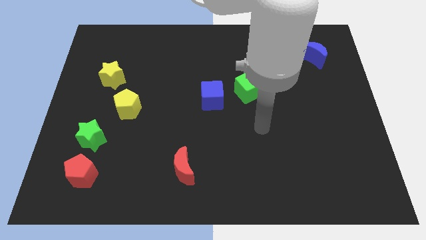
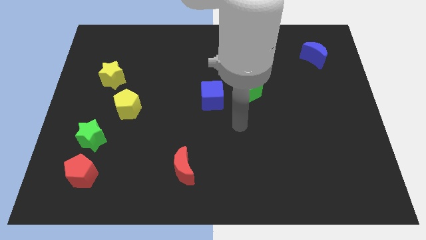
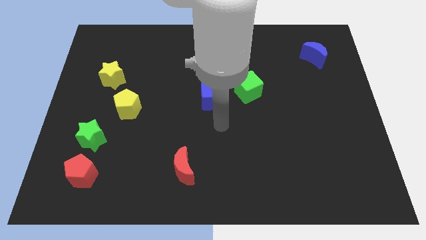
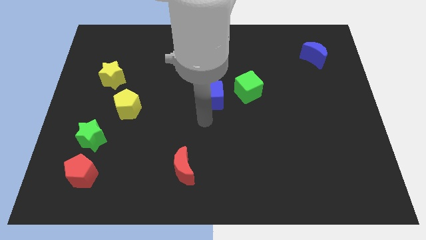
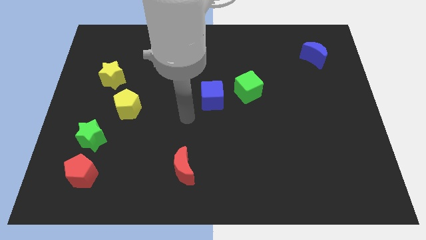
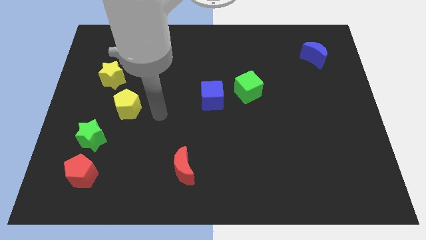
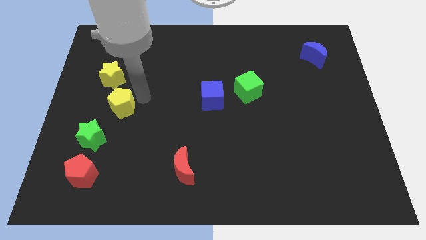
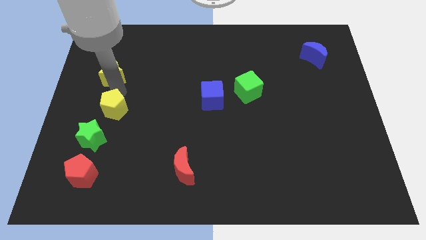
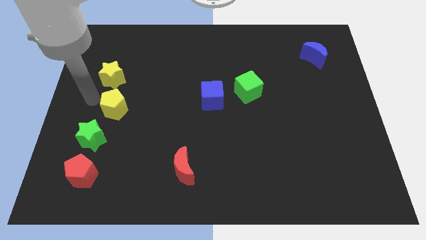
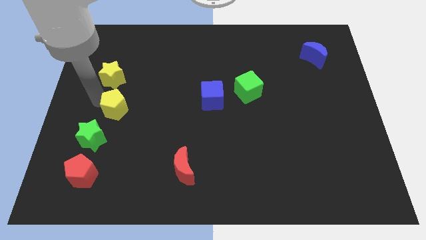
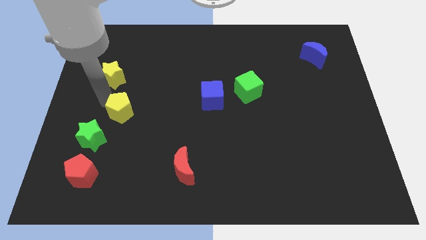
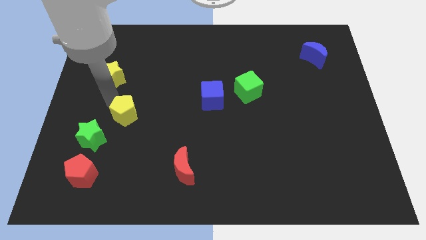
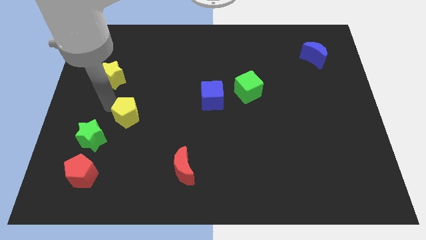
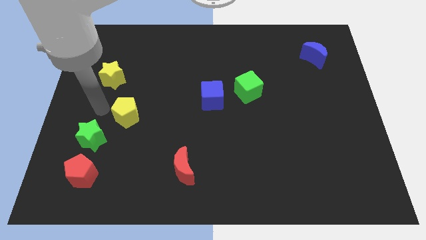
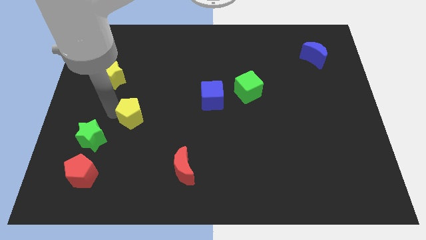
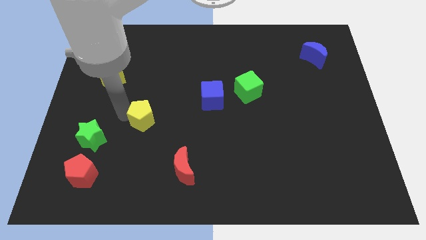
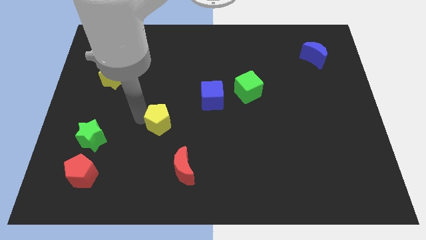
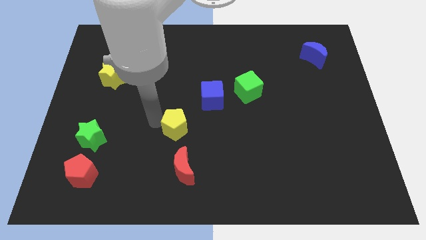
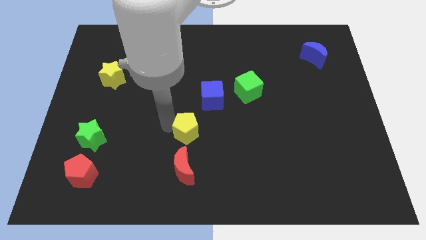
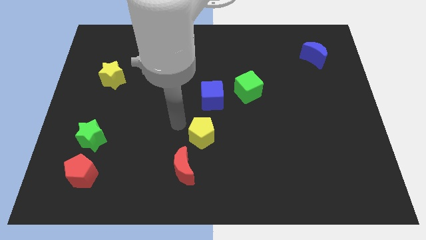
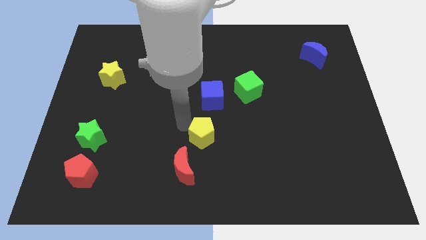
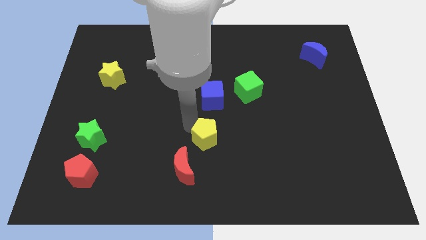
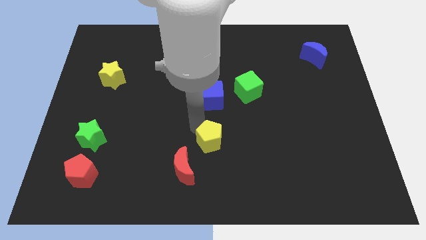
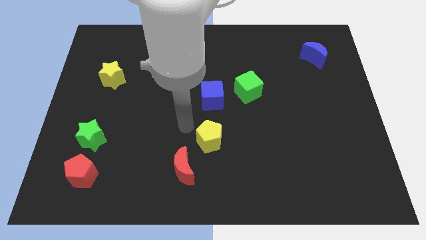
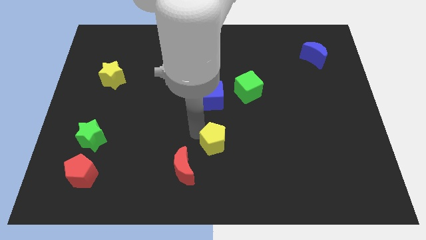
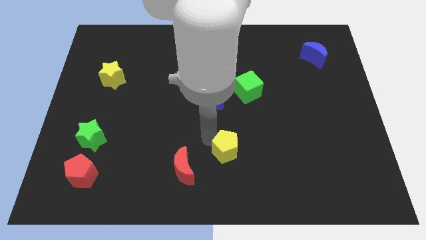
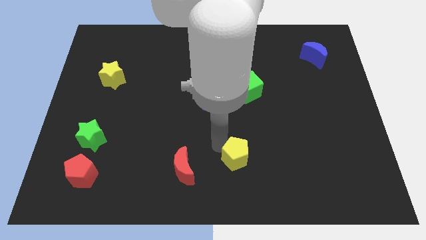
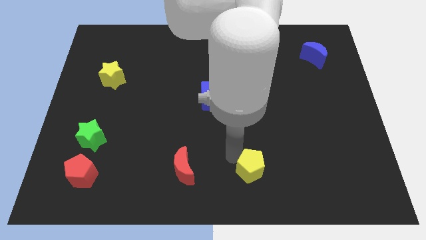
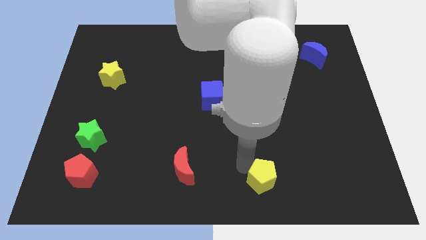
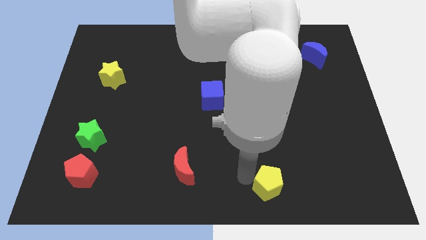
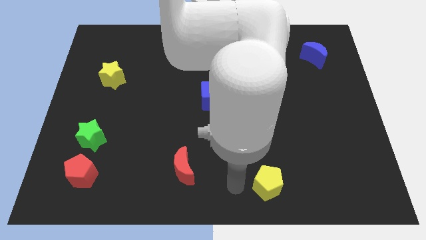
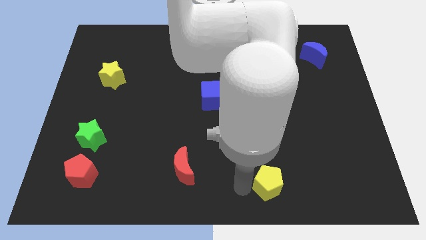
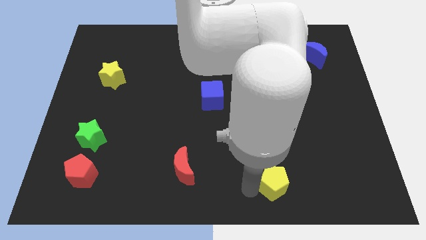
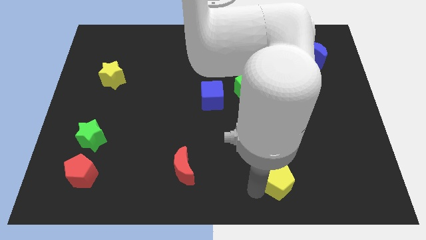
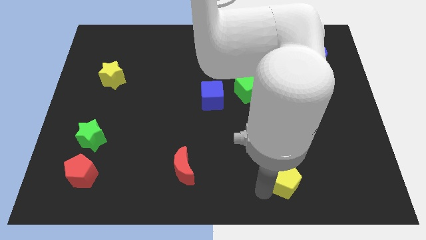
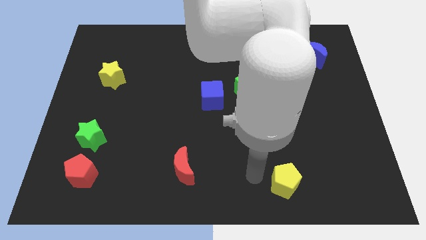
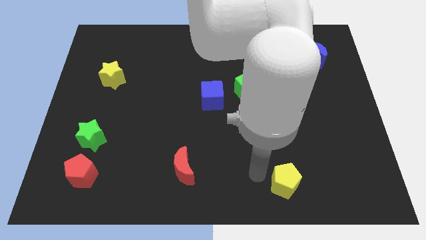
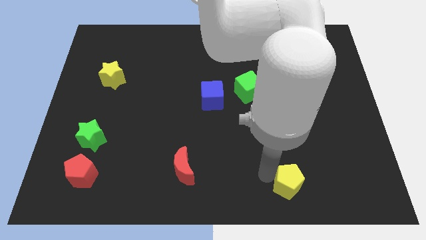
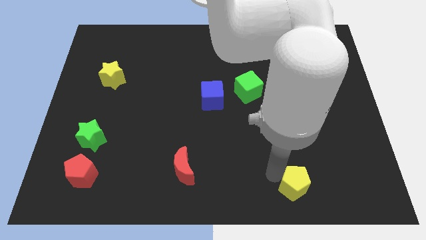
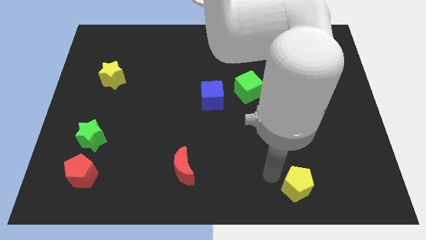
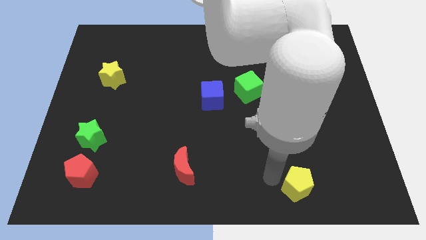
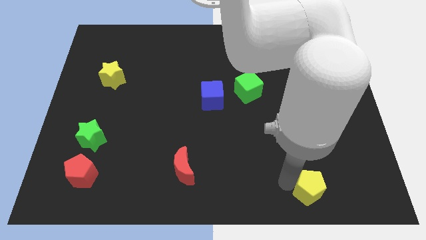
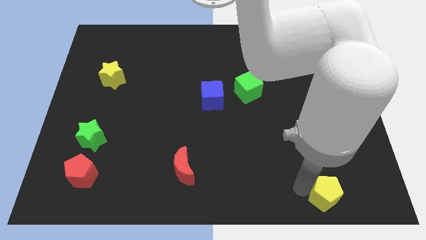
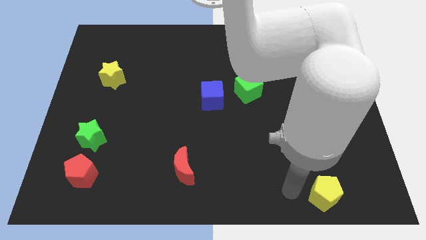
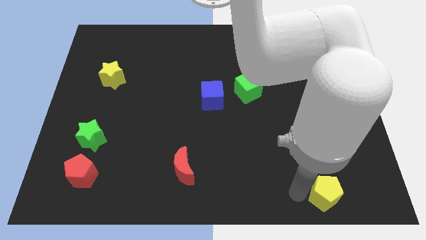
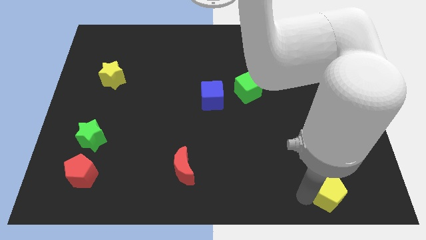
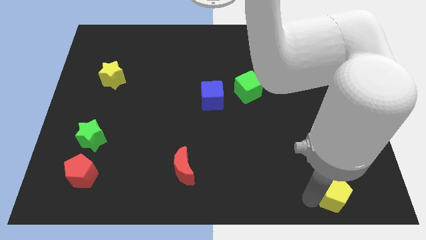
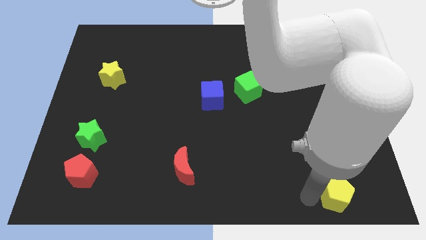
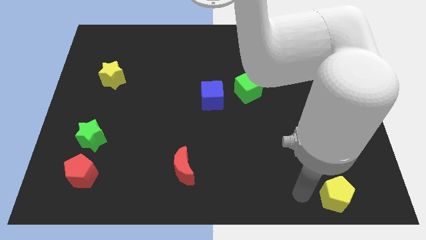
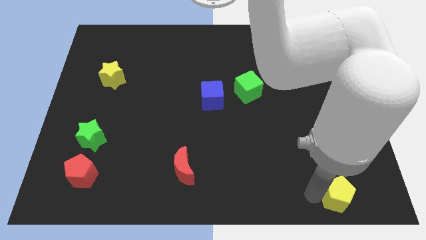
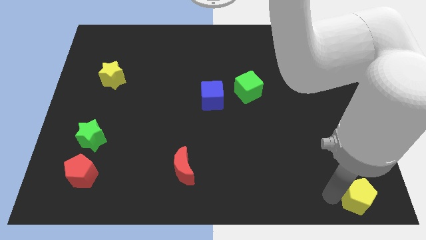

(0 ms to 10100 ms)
put the yellow pentagon to the bottom right corner

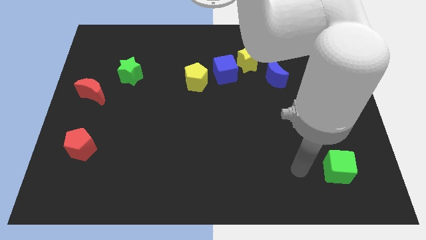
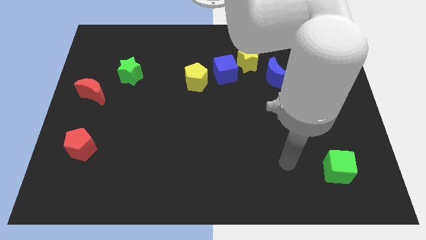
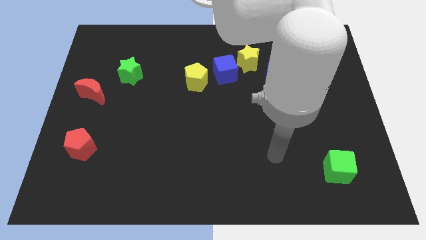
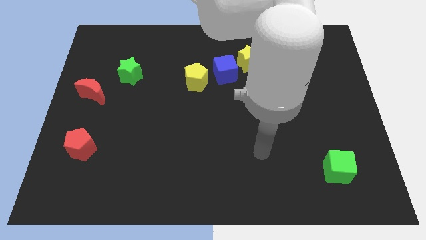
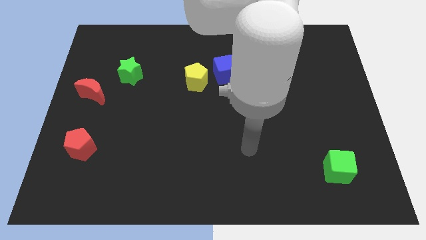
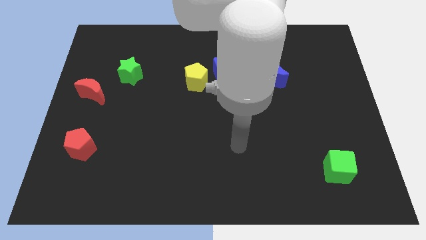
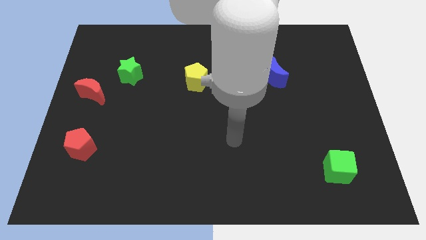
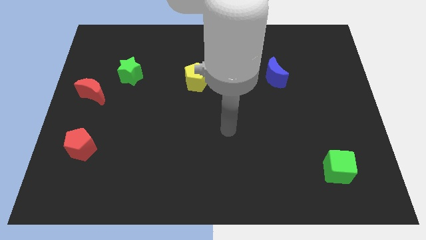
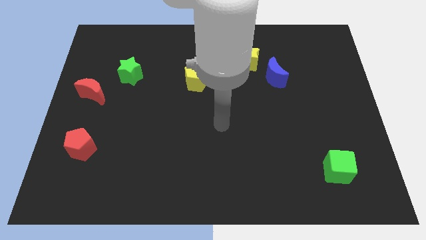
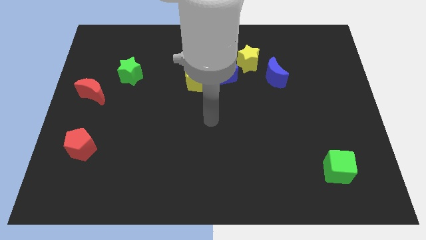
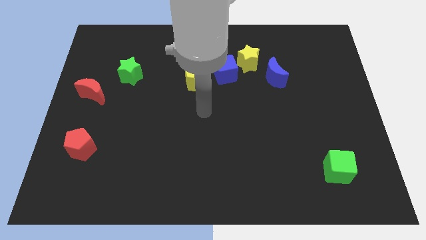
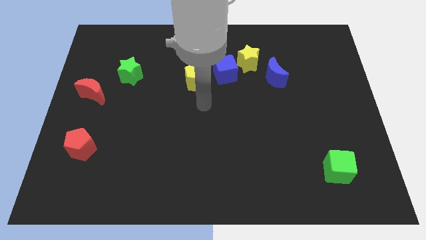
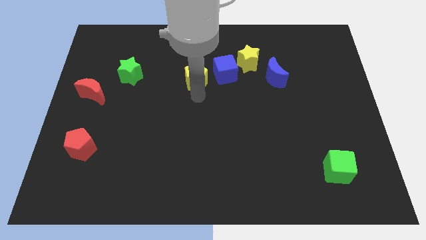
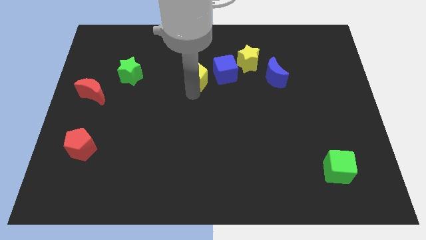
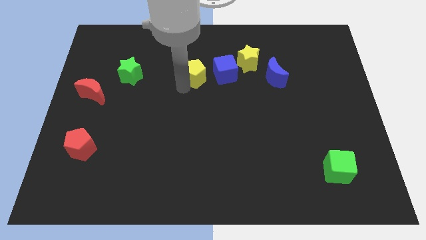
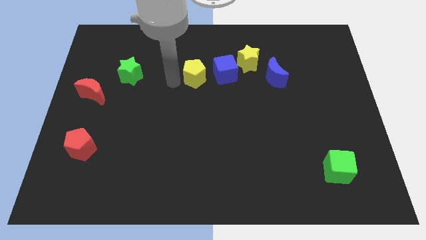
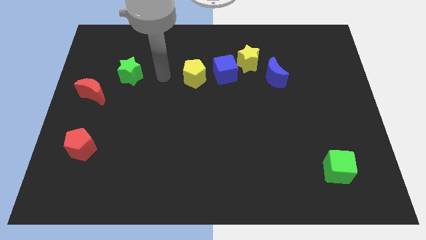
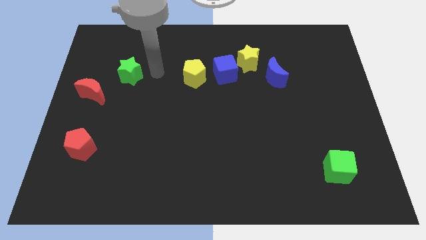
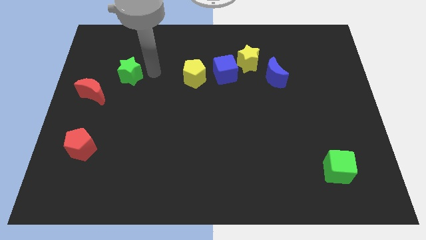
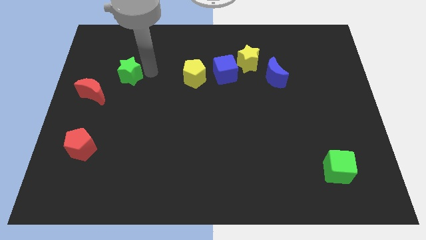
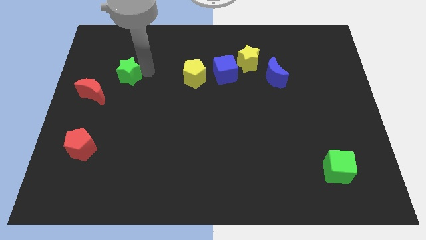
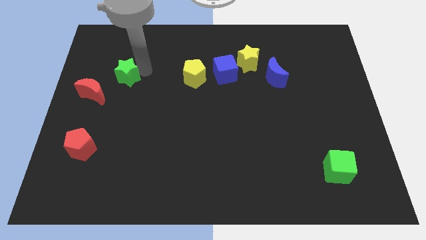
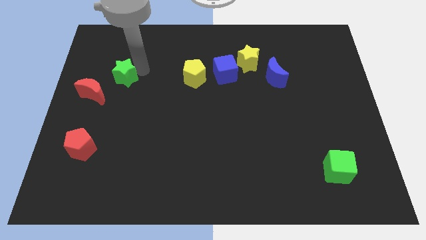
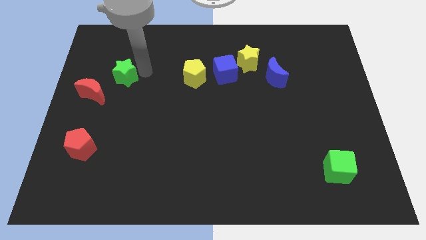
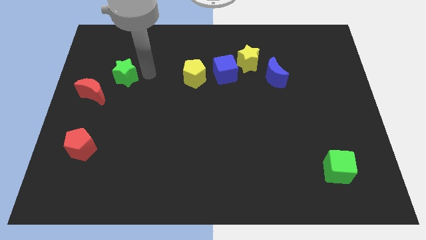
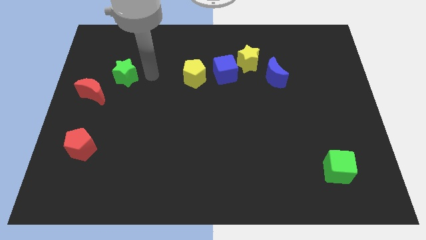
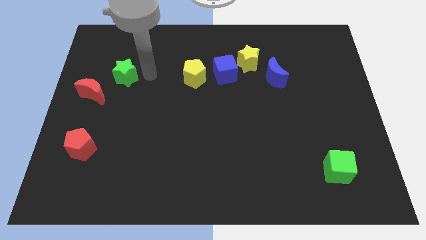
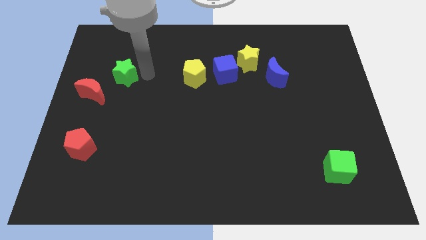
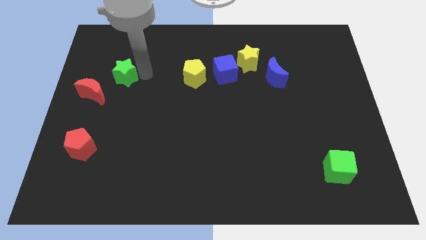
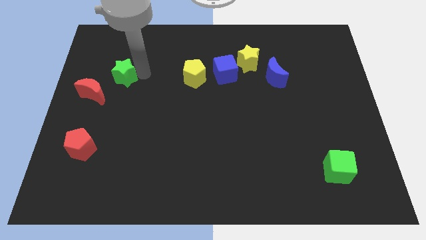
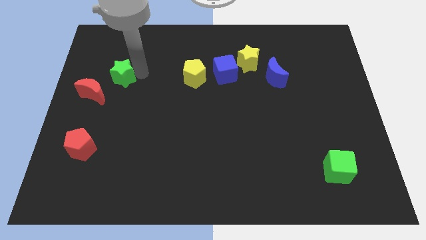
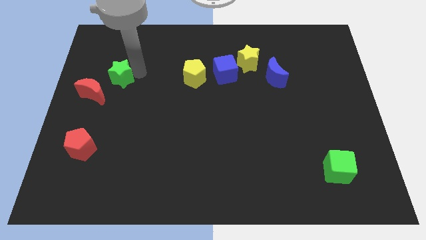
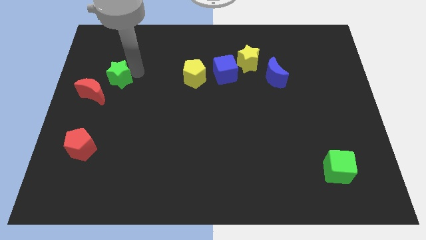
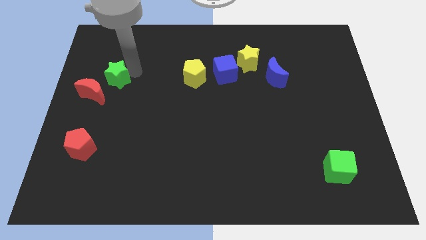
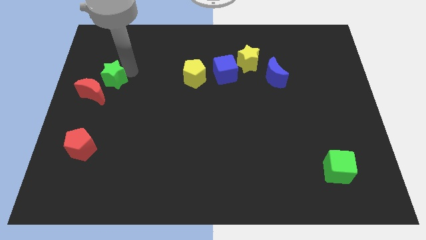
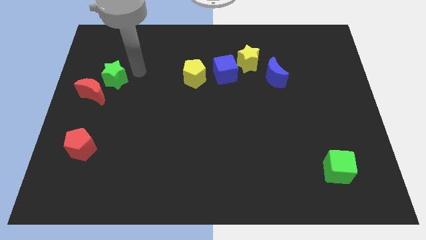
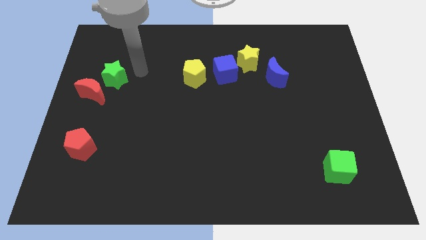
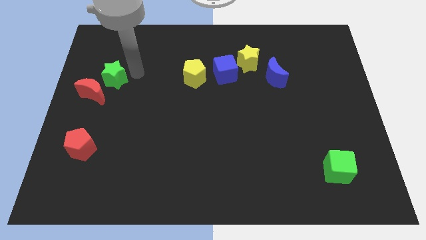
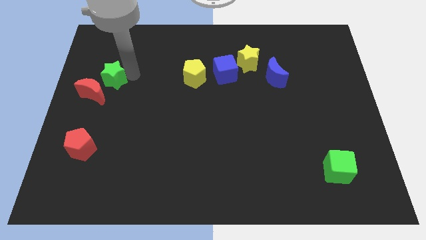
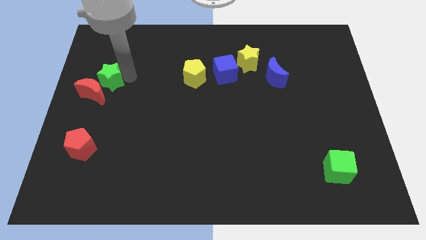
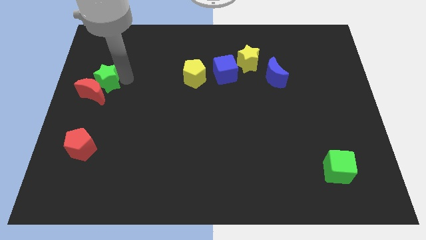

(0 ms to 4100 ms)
put the green star to the left side
